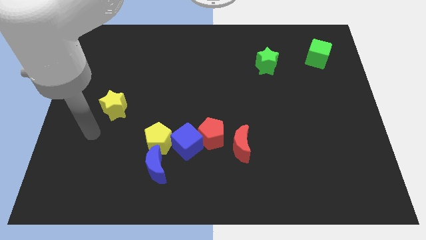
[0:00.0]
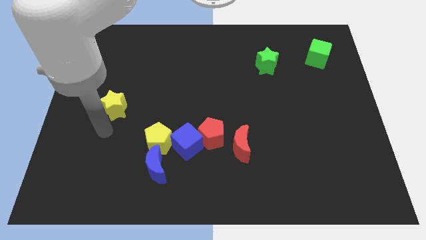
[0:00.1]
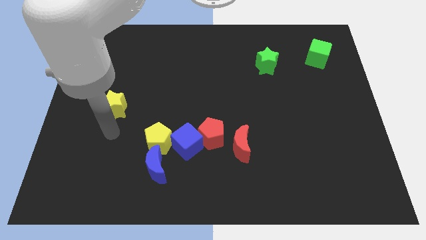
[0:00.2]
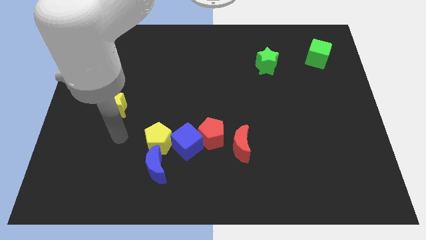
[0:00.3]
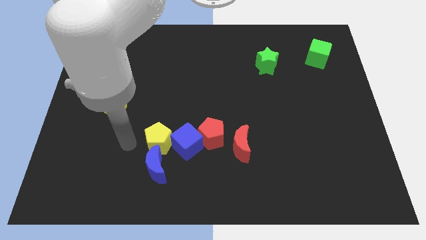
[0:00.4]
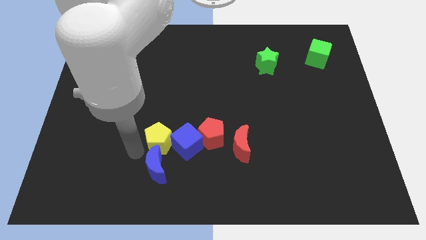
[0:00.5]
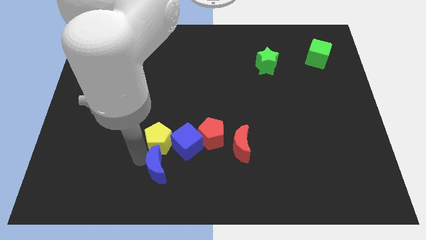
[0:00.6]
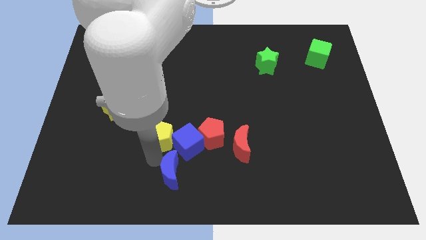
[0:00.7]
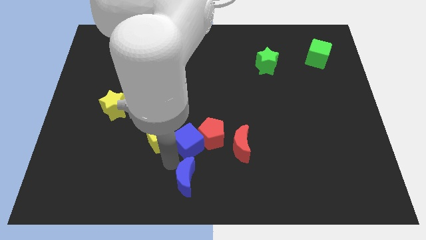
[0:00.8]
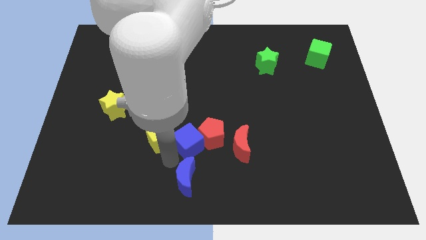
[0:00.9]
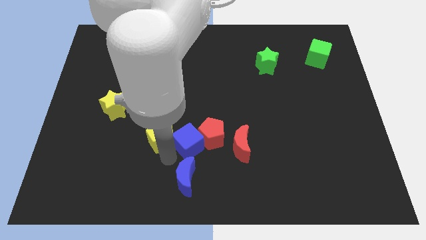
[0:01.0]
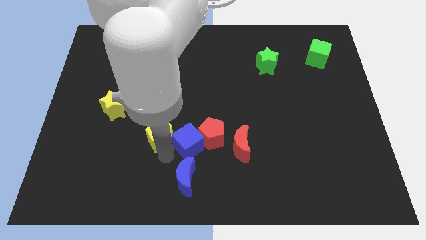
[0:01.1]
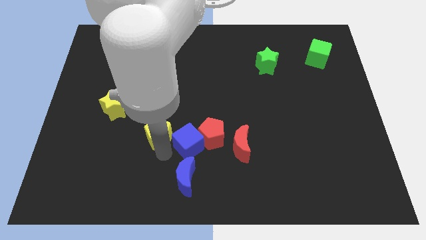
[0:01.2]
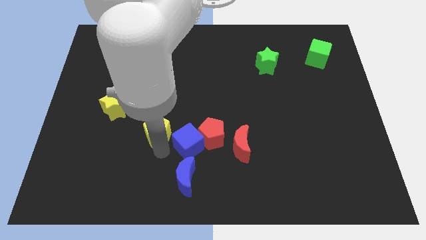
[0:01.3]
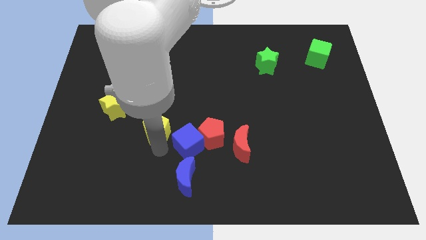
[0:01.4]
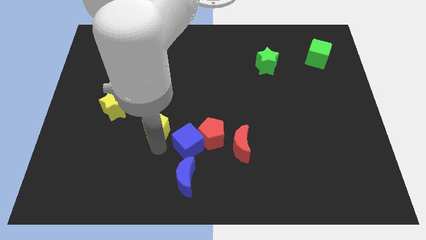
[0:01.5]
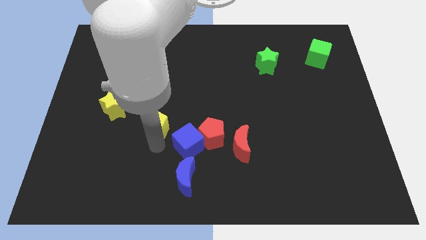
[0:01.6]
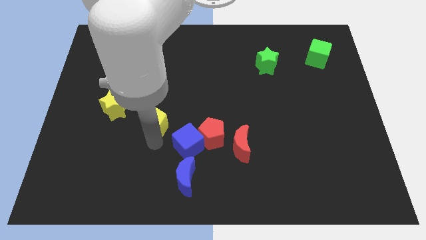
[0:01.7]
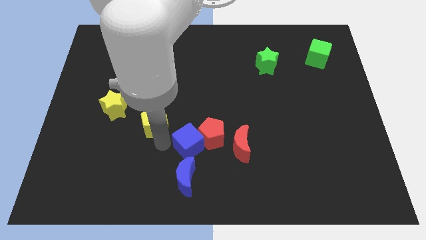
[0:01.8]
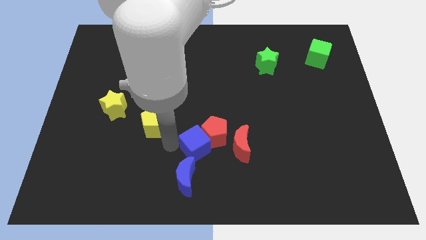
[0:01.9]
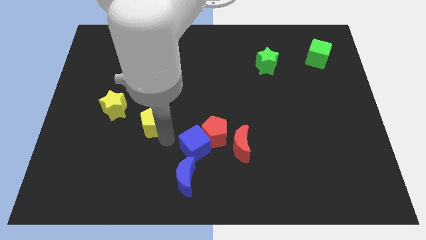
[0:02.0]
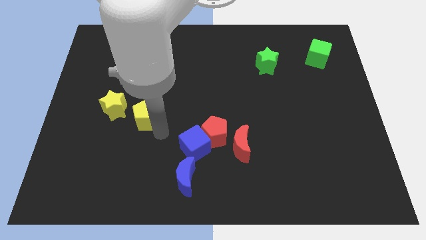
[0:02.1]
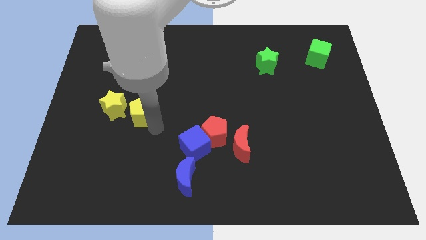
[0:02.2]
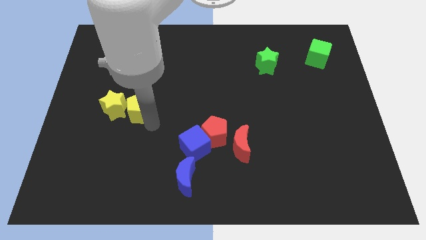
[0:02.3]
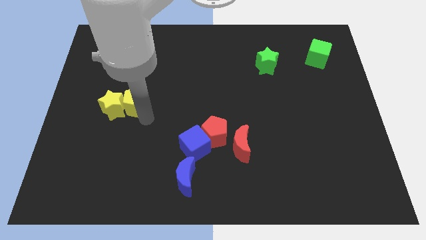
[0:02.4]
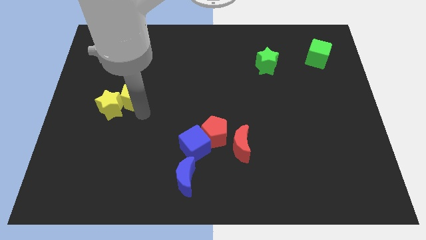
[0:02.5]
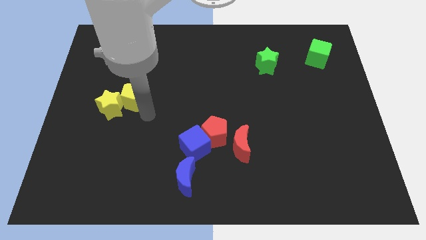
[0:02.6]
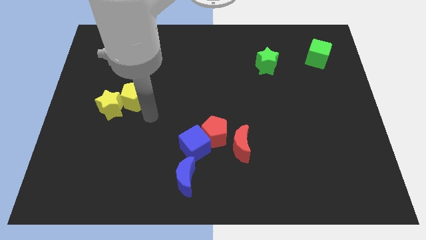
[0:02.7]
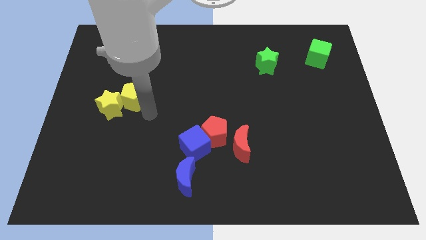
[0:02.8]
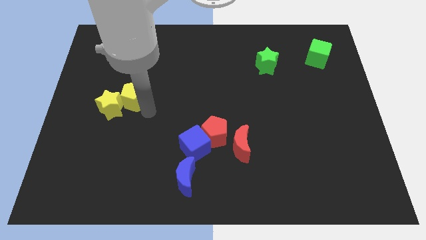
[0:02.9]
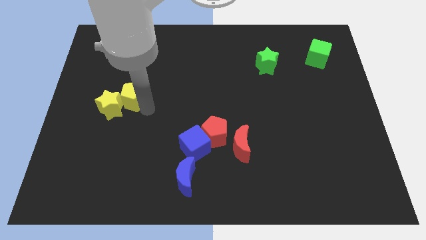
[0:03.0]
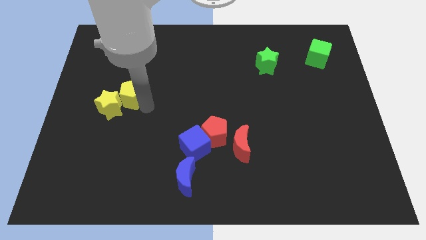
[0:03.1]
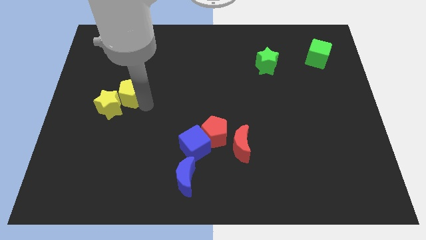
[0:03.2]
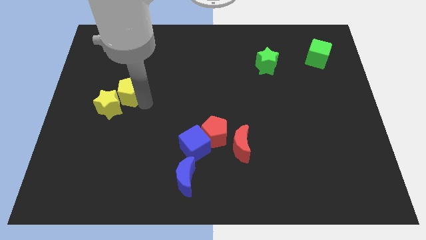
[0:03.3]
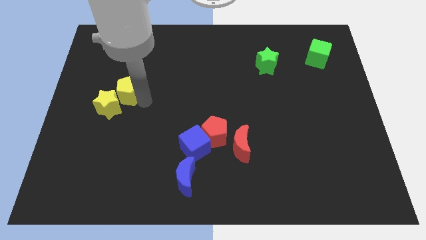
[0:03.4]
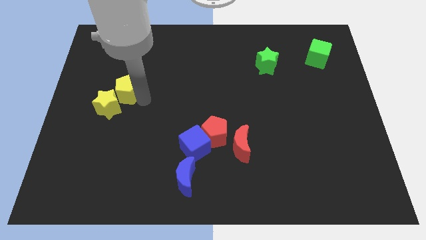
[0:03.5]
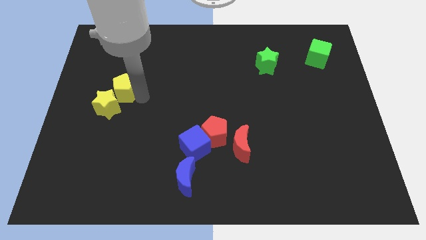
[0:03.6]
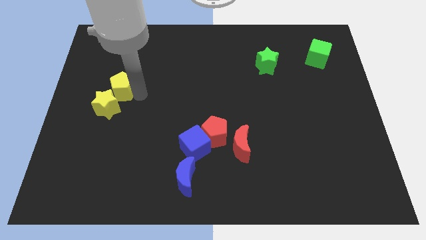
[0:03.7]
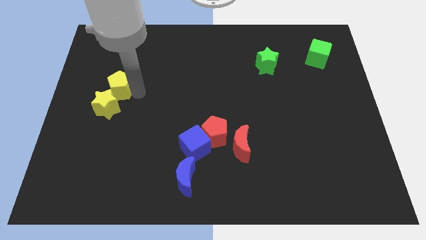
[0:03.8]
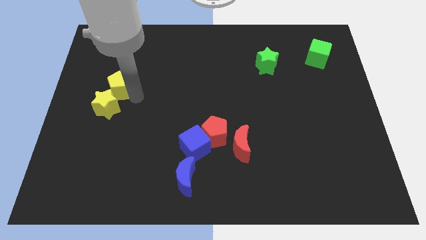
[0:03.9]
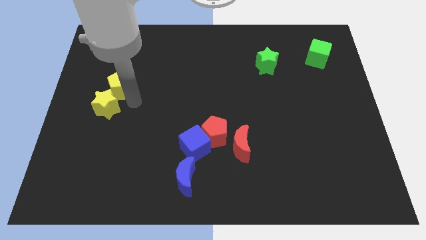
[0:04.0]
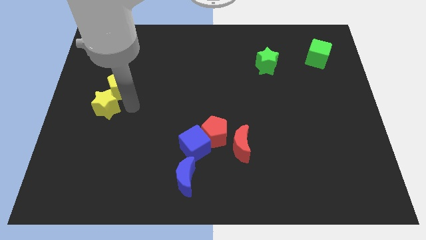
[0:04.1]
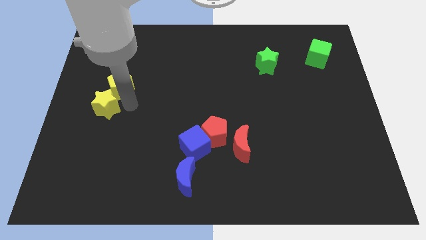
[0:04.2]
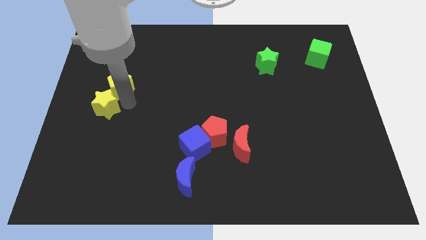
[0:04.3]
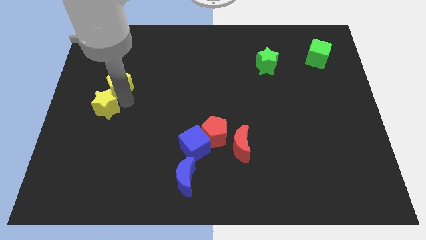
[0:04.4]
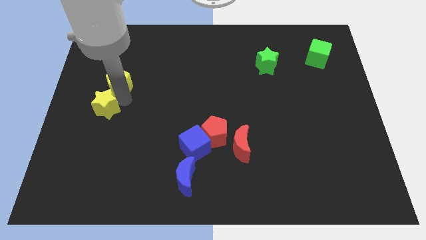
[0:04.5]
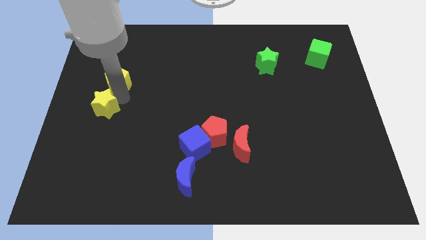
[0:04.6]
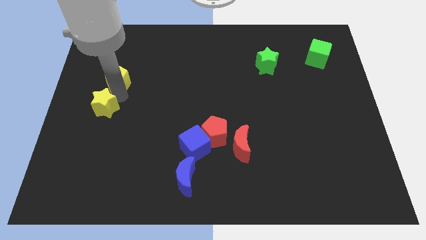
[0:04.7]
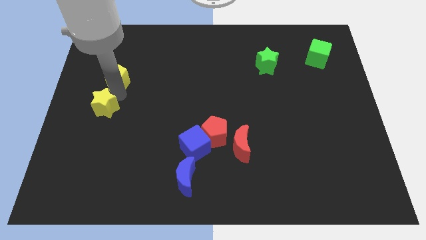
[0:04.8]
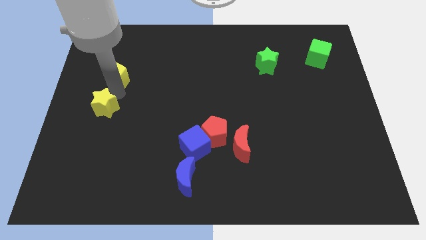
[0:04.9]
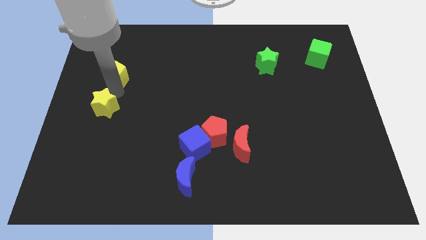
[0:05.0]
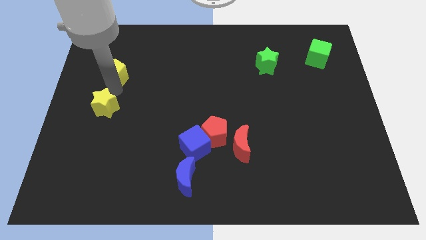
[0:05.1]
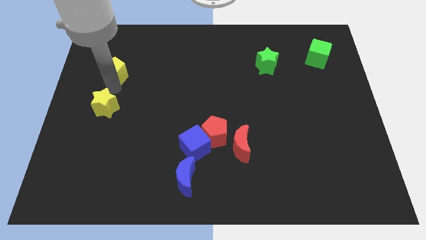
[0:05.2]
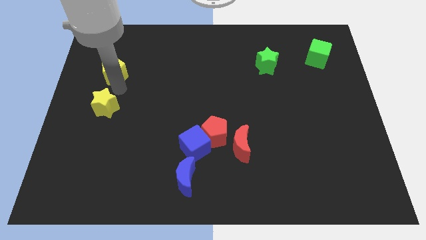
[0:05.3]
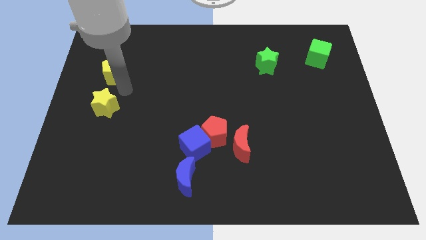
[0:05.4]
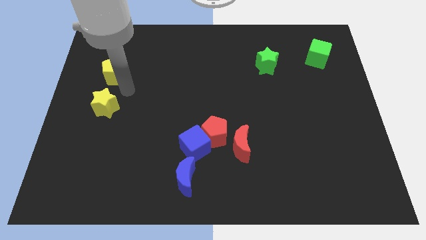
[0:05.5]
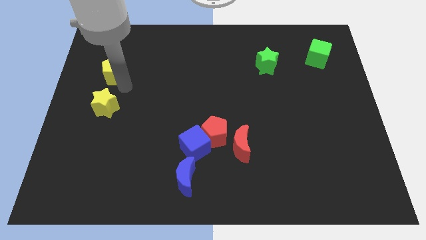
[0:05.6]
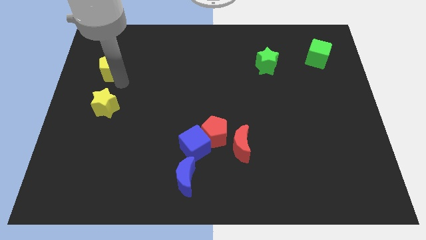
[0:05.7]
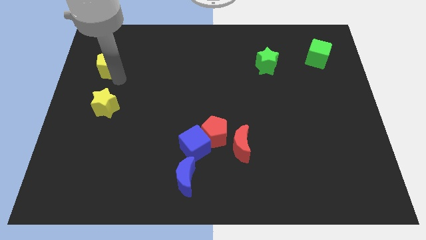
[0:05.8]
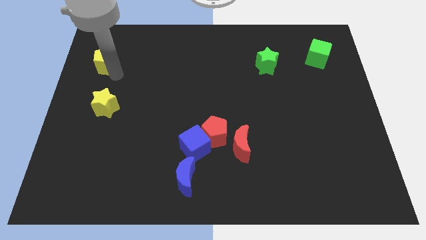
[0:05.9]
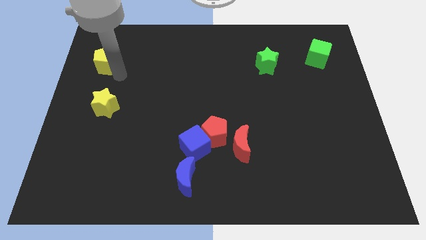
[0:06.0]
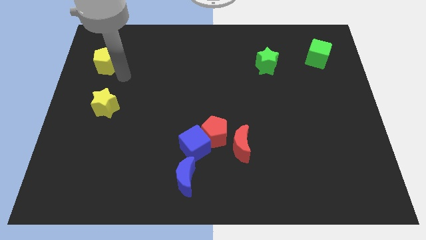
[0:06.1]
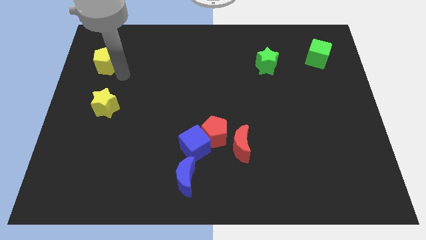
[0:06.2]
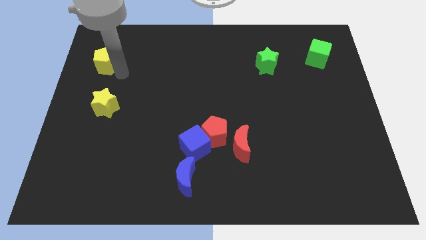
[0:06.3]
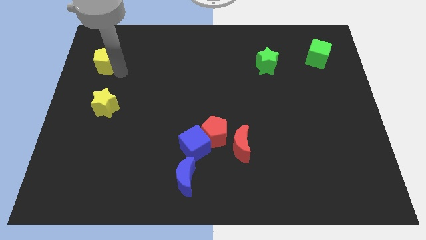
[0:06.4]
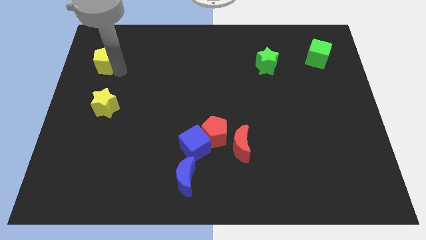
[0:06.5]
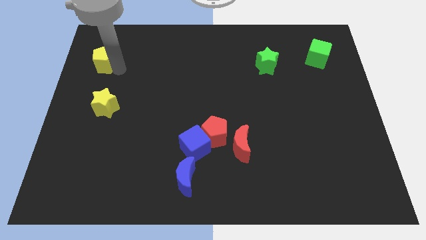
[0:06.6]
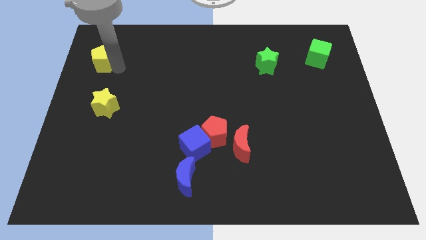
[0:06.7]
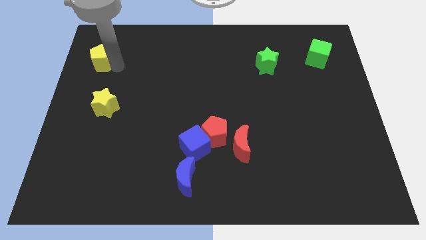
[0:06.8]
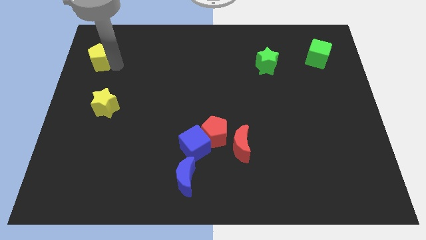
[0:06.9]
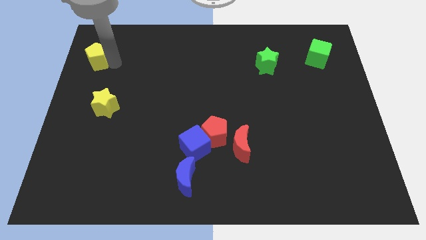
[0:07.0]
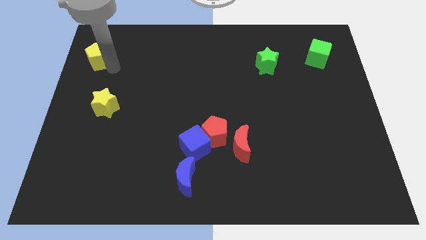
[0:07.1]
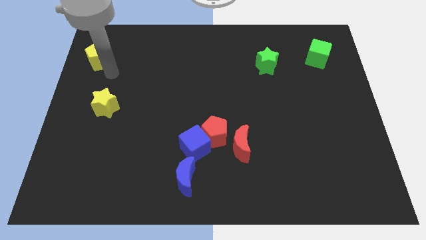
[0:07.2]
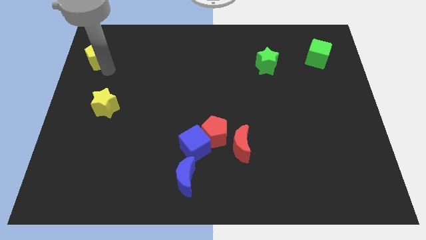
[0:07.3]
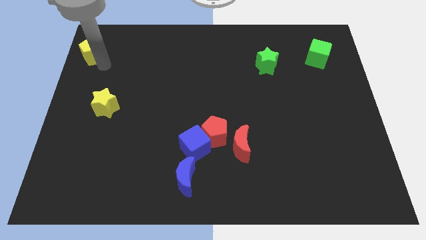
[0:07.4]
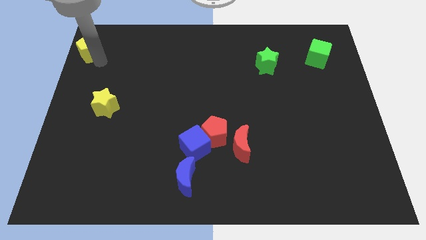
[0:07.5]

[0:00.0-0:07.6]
move the yellow pentagon to the top left
